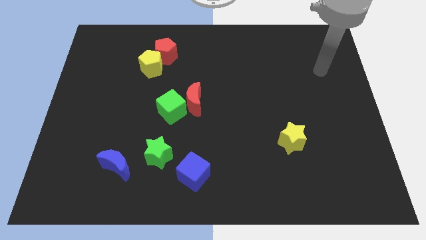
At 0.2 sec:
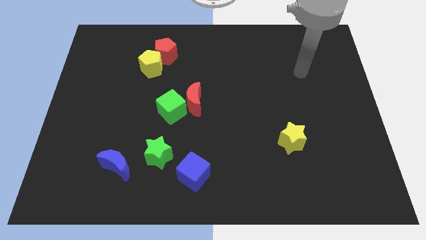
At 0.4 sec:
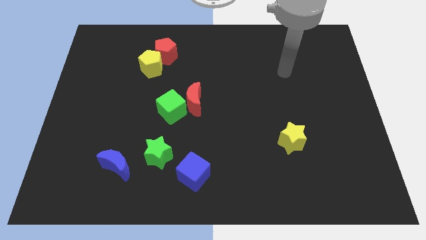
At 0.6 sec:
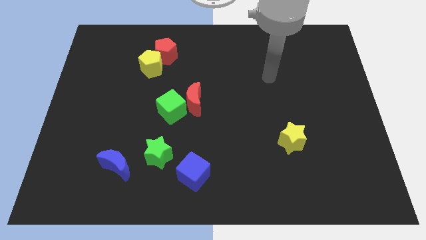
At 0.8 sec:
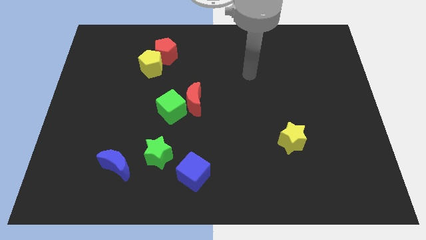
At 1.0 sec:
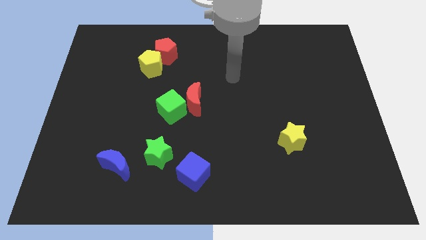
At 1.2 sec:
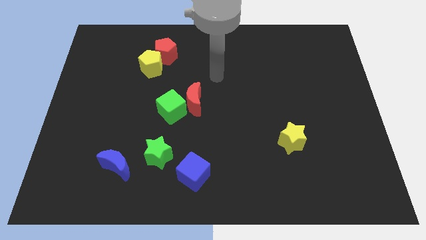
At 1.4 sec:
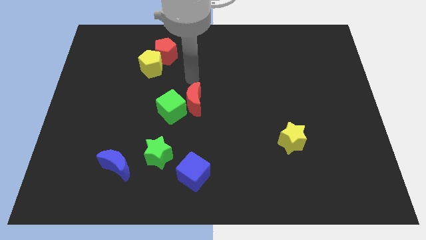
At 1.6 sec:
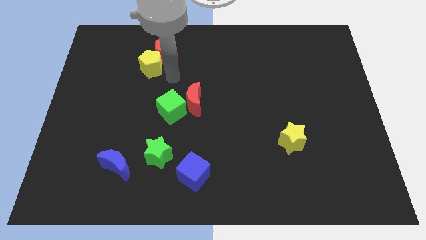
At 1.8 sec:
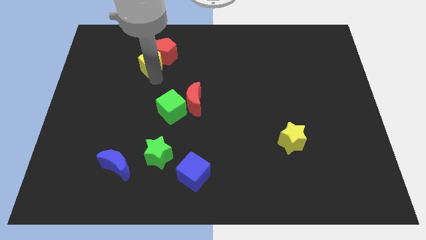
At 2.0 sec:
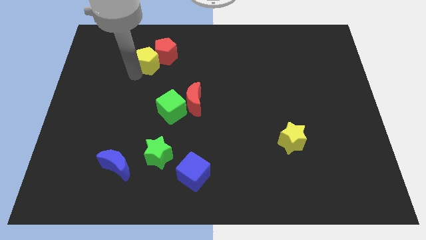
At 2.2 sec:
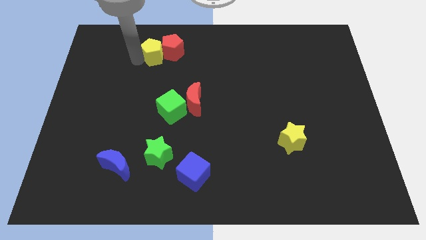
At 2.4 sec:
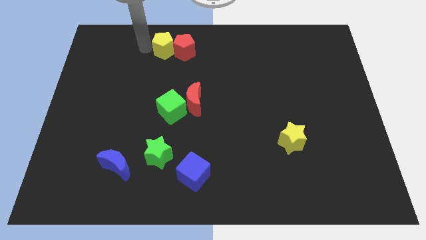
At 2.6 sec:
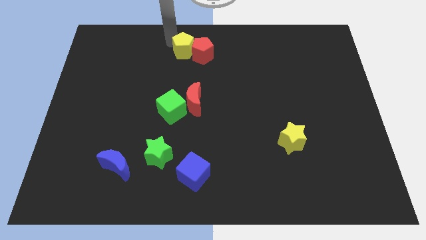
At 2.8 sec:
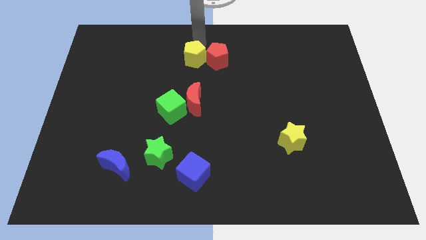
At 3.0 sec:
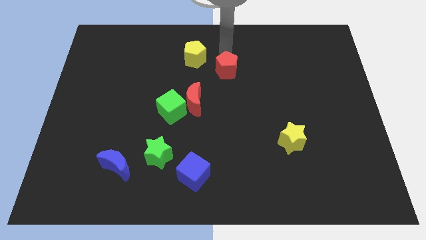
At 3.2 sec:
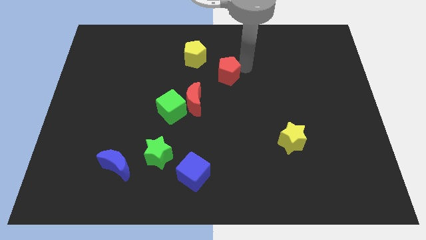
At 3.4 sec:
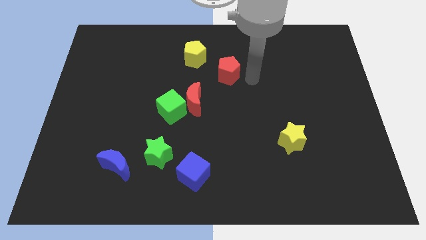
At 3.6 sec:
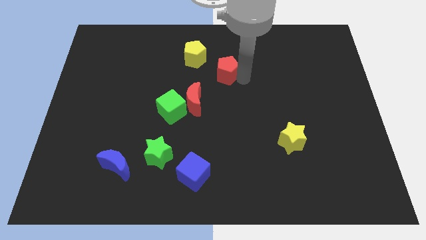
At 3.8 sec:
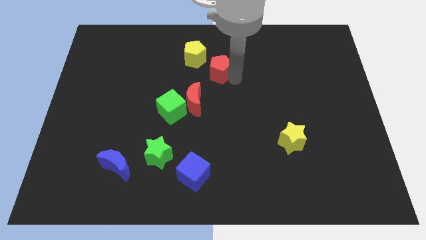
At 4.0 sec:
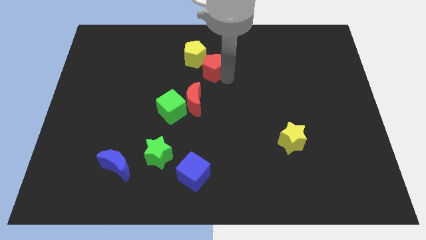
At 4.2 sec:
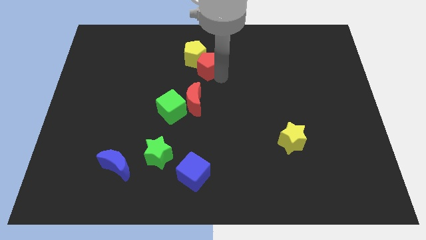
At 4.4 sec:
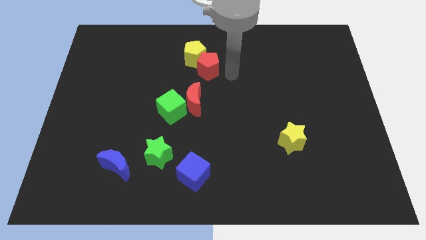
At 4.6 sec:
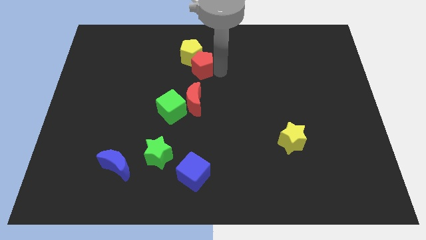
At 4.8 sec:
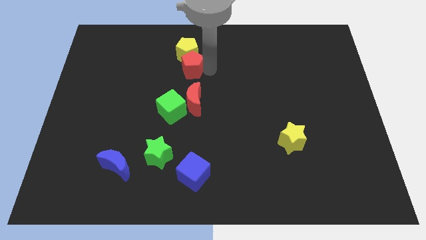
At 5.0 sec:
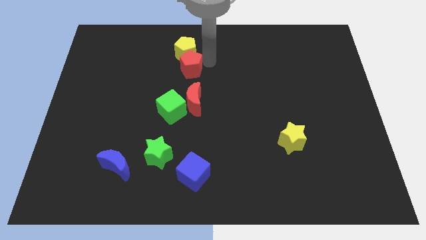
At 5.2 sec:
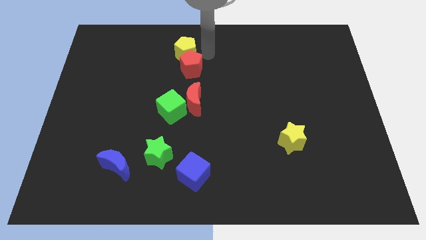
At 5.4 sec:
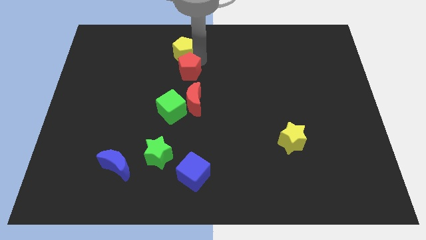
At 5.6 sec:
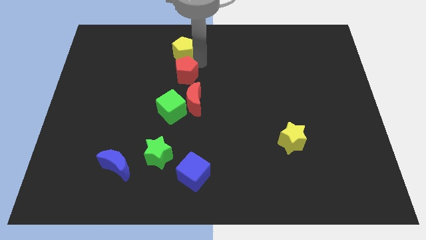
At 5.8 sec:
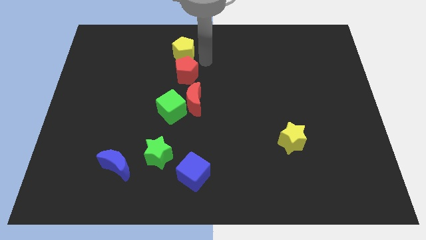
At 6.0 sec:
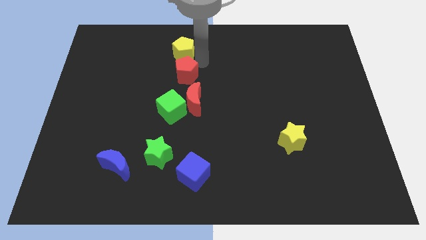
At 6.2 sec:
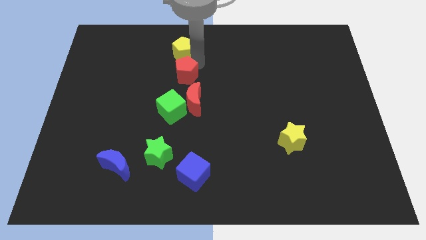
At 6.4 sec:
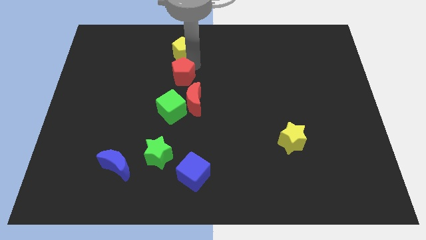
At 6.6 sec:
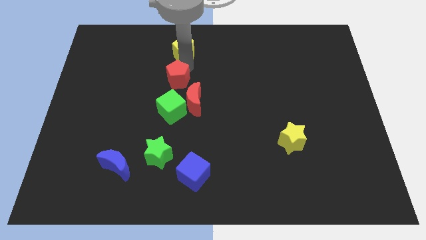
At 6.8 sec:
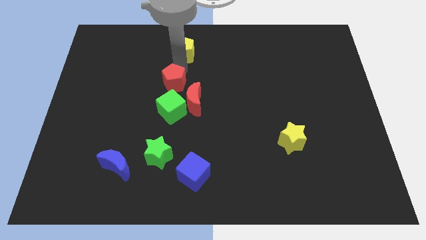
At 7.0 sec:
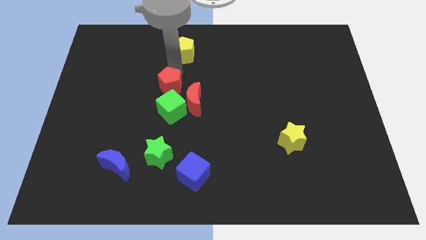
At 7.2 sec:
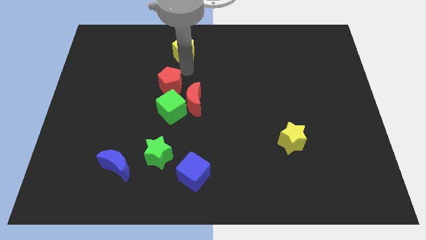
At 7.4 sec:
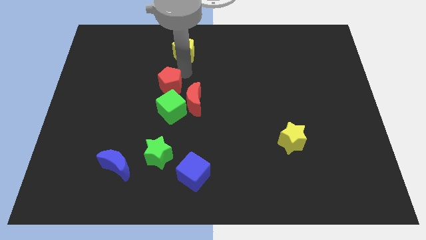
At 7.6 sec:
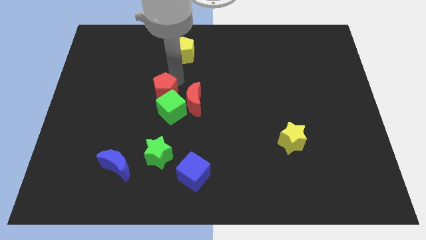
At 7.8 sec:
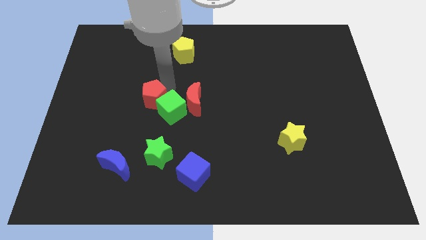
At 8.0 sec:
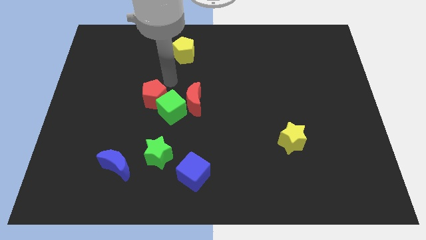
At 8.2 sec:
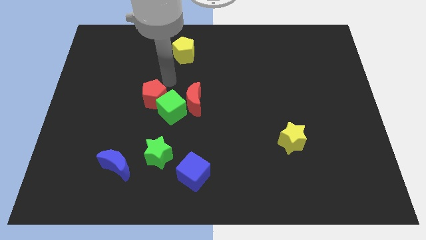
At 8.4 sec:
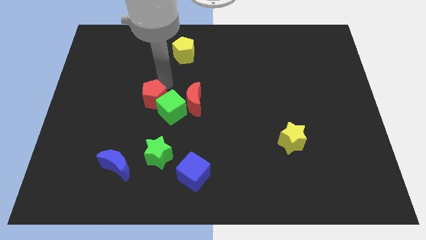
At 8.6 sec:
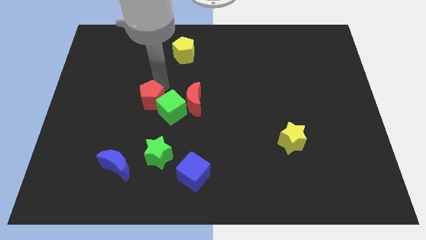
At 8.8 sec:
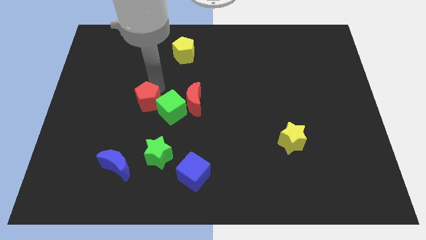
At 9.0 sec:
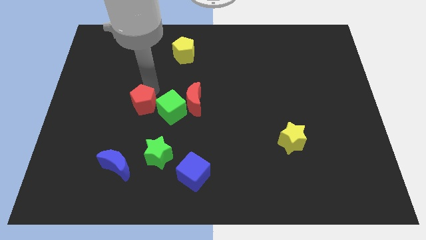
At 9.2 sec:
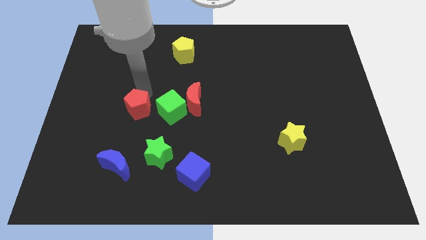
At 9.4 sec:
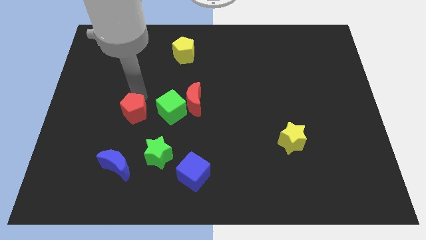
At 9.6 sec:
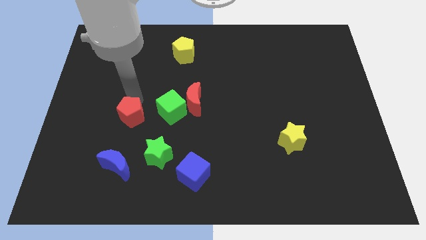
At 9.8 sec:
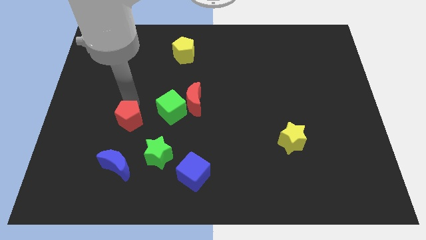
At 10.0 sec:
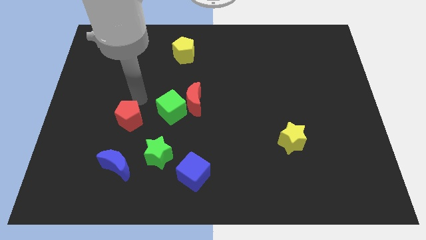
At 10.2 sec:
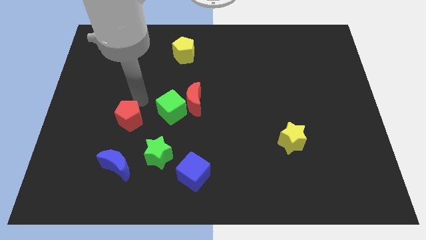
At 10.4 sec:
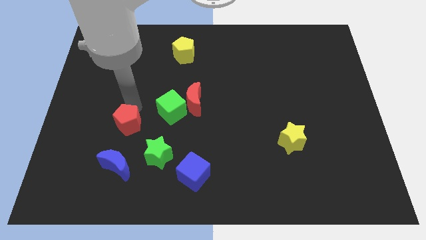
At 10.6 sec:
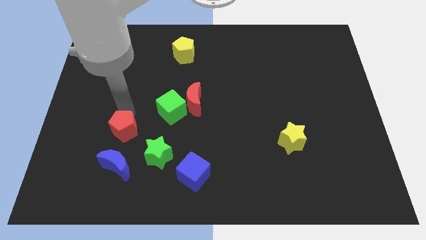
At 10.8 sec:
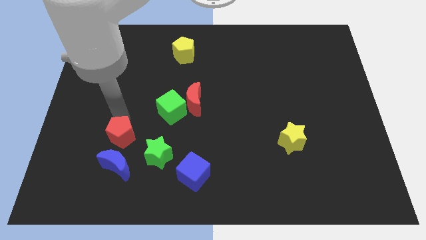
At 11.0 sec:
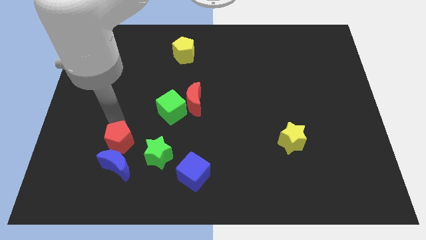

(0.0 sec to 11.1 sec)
slide the red pentagon to the blue moon

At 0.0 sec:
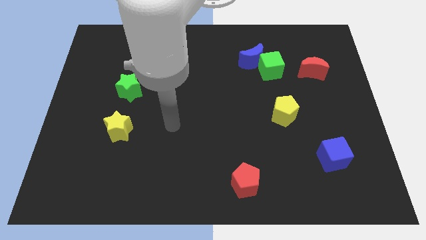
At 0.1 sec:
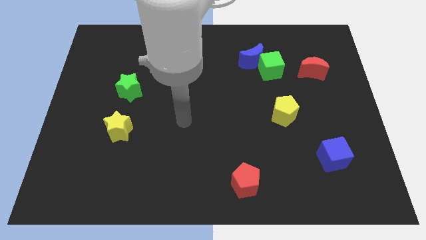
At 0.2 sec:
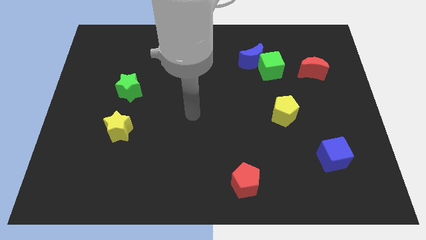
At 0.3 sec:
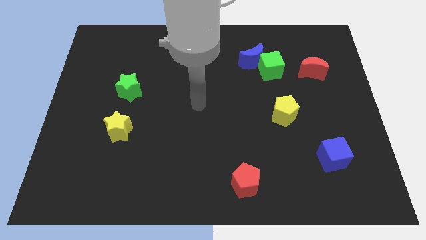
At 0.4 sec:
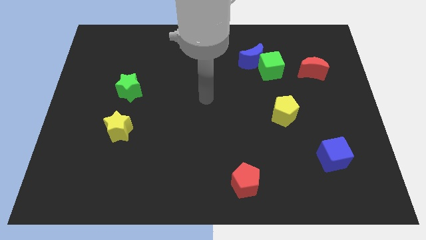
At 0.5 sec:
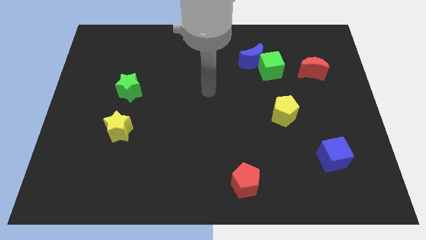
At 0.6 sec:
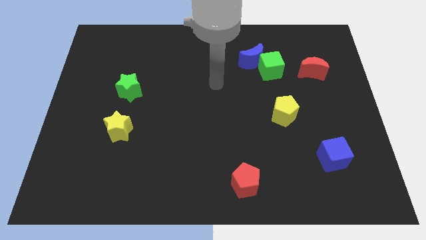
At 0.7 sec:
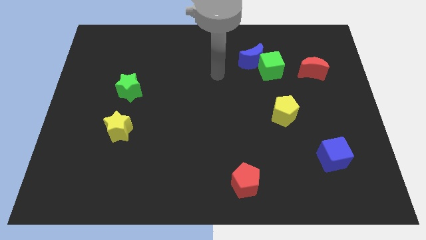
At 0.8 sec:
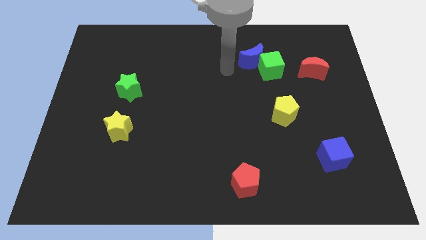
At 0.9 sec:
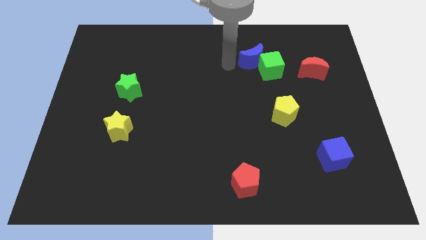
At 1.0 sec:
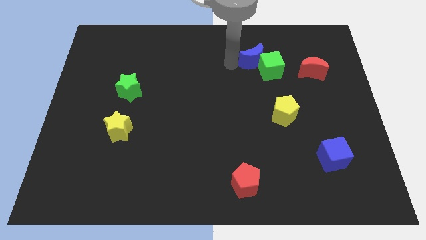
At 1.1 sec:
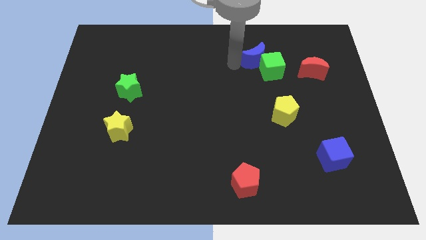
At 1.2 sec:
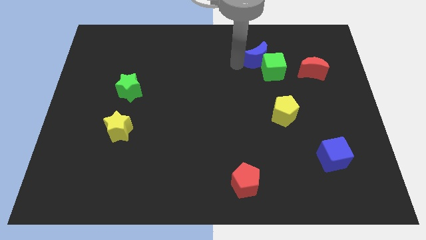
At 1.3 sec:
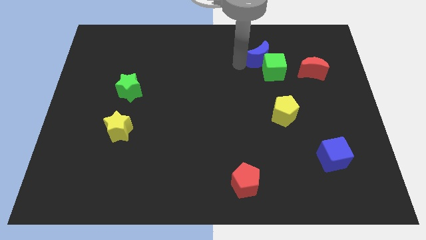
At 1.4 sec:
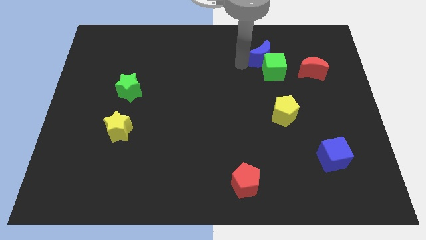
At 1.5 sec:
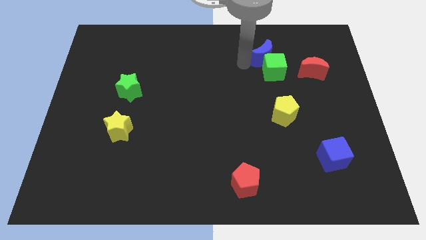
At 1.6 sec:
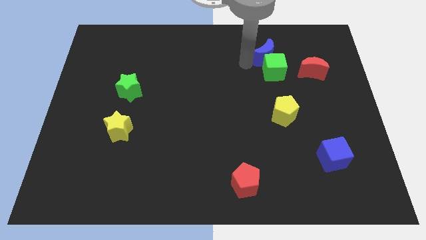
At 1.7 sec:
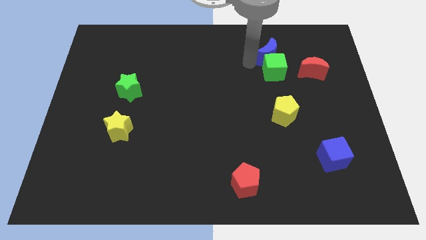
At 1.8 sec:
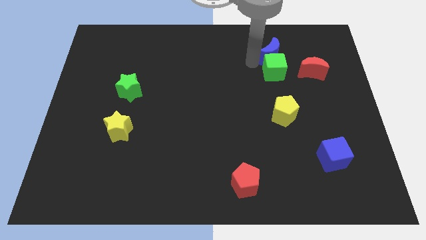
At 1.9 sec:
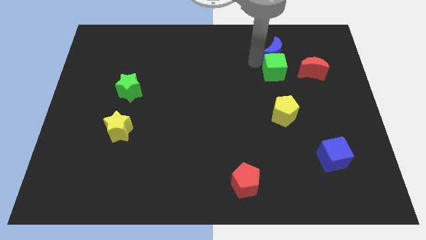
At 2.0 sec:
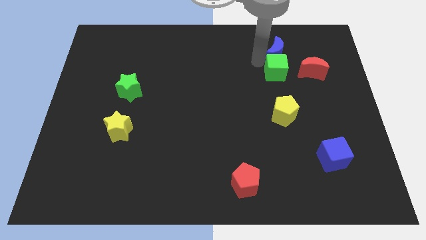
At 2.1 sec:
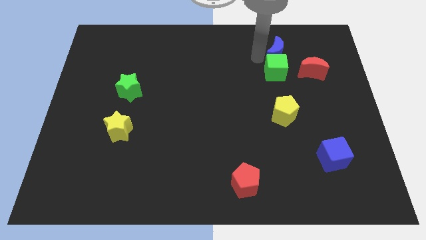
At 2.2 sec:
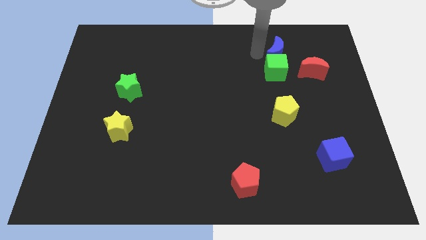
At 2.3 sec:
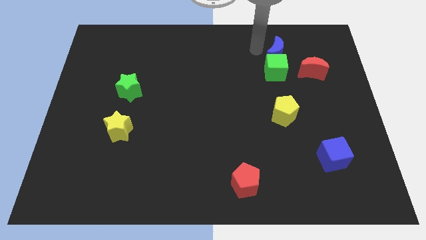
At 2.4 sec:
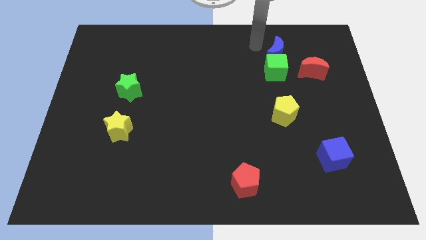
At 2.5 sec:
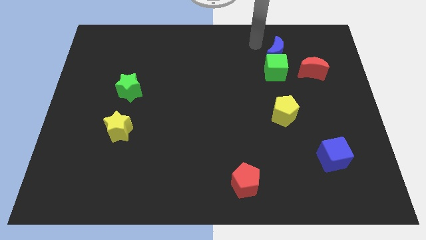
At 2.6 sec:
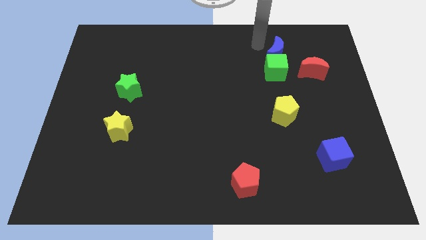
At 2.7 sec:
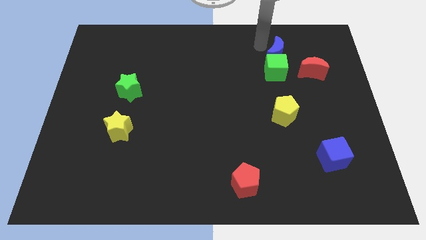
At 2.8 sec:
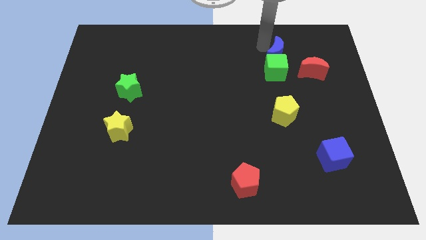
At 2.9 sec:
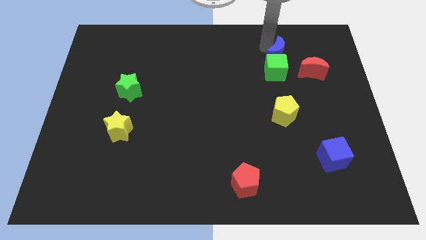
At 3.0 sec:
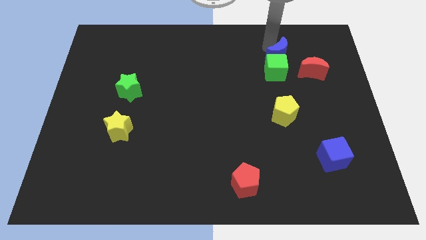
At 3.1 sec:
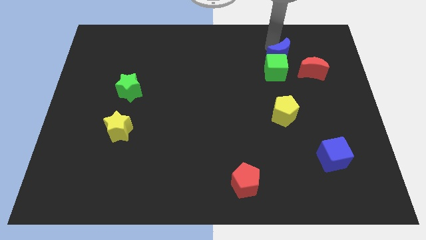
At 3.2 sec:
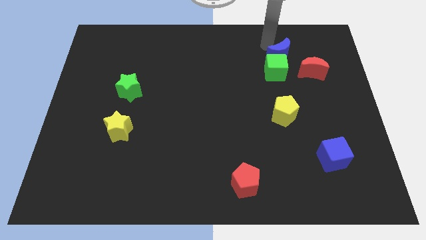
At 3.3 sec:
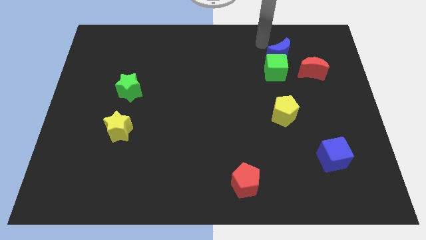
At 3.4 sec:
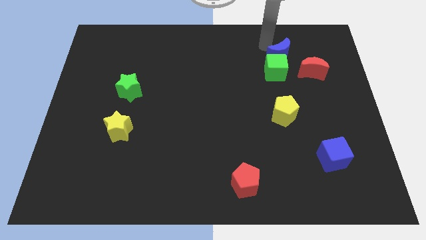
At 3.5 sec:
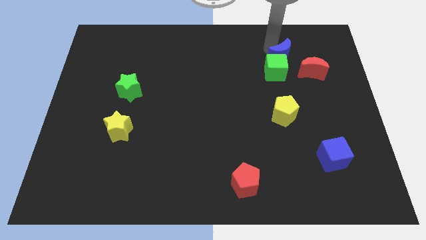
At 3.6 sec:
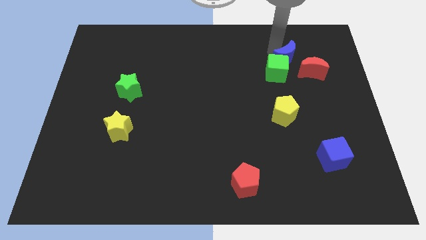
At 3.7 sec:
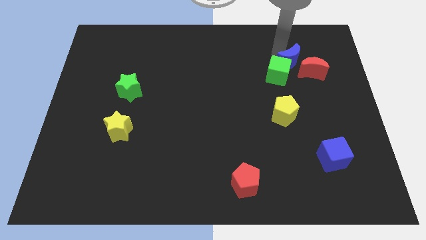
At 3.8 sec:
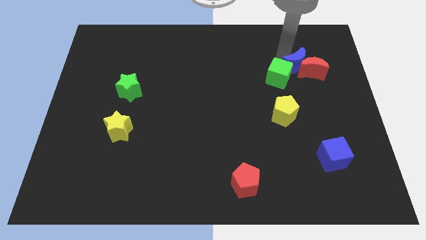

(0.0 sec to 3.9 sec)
slide the blue moon towards the red moon
